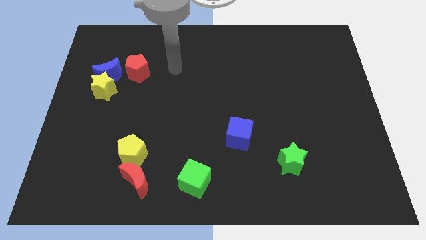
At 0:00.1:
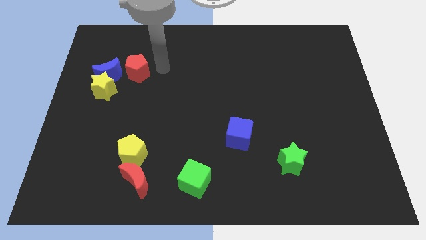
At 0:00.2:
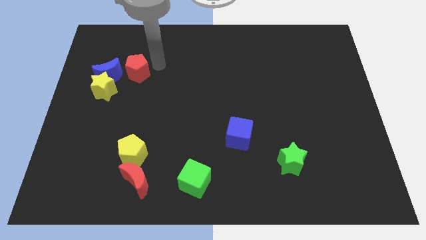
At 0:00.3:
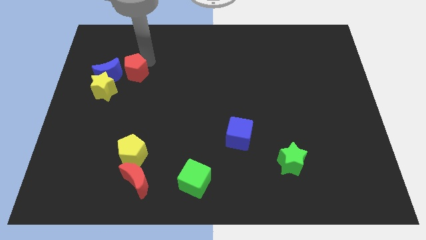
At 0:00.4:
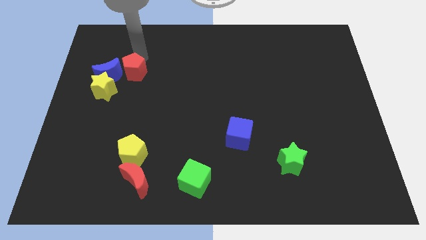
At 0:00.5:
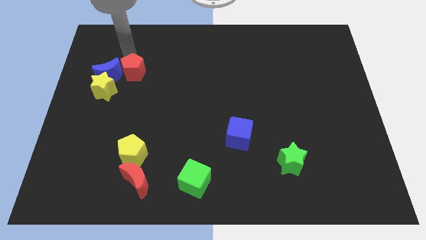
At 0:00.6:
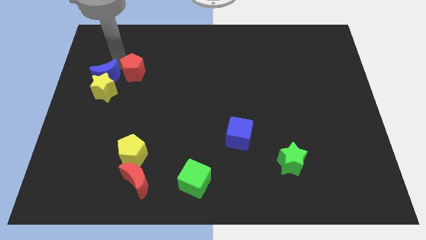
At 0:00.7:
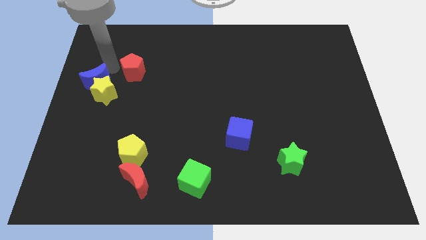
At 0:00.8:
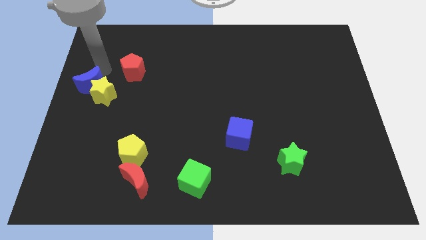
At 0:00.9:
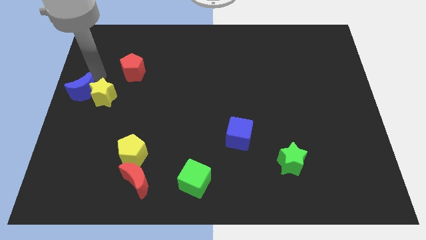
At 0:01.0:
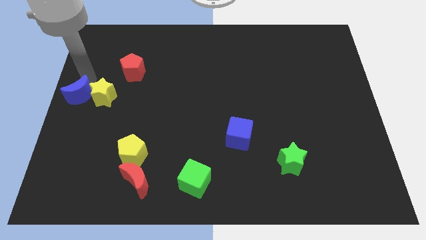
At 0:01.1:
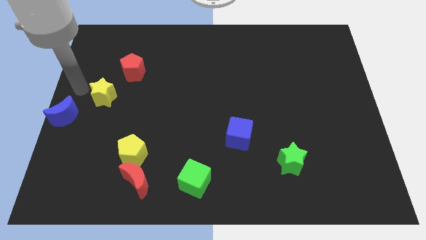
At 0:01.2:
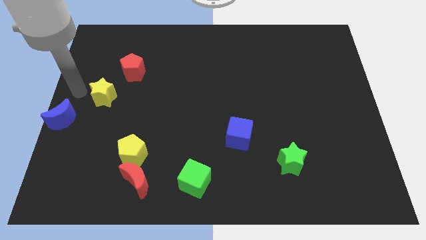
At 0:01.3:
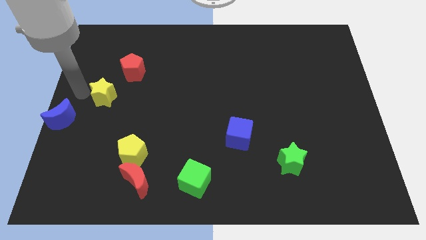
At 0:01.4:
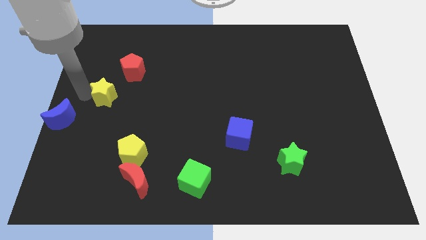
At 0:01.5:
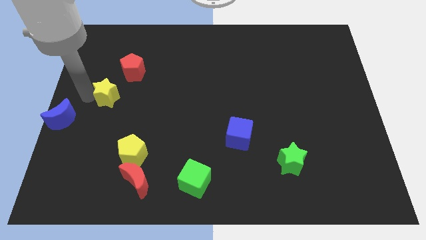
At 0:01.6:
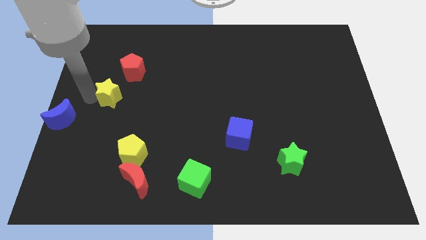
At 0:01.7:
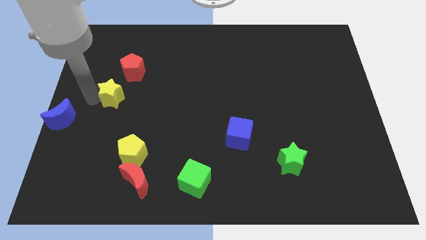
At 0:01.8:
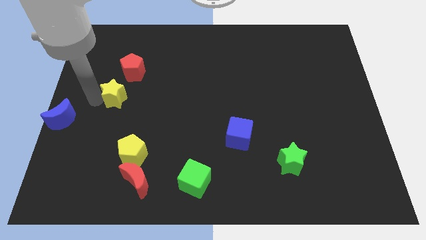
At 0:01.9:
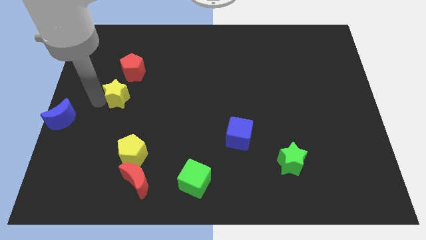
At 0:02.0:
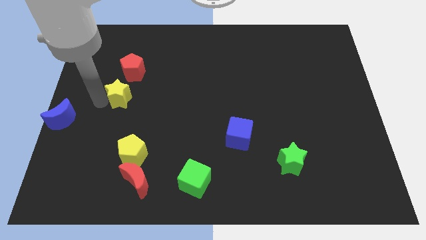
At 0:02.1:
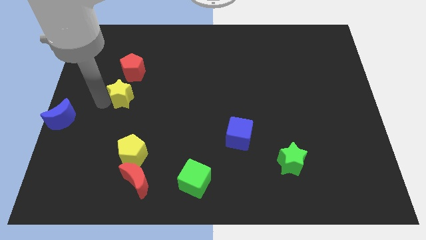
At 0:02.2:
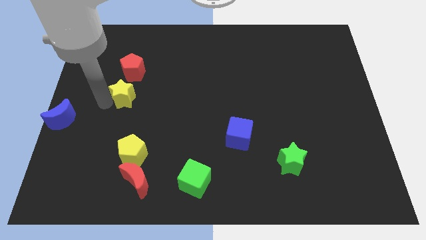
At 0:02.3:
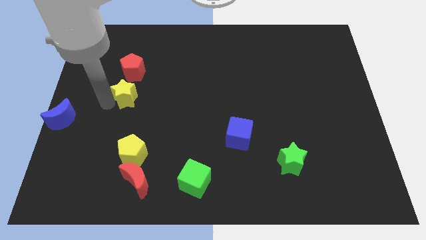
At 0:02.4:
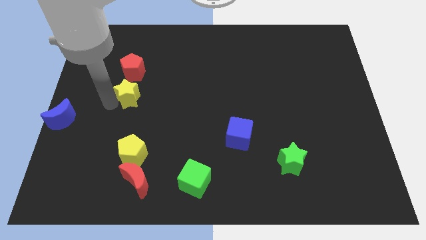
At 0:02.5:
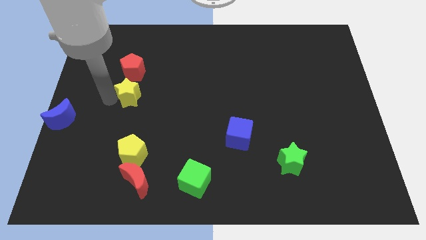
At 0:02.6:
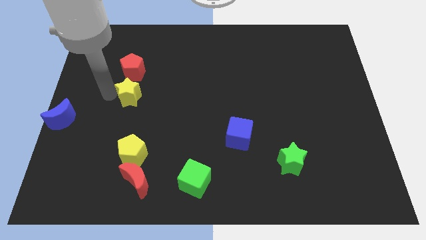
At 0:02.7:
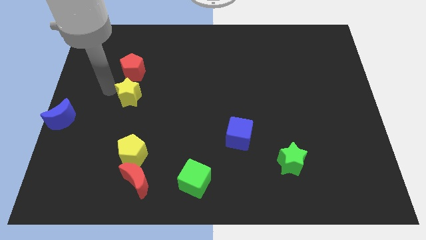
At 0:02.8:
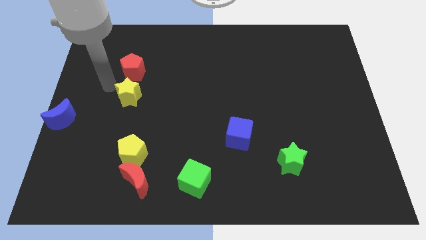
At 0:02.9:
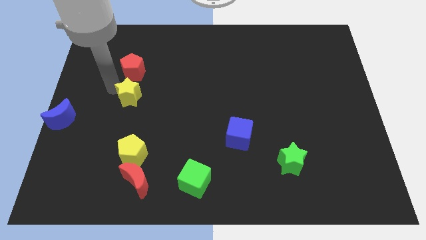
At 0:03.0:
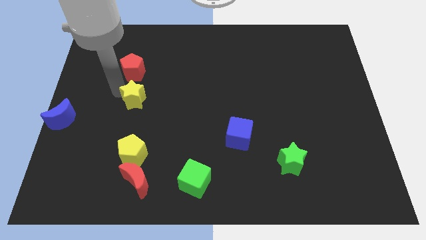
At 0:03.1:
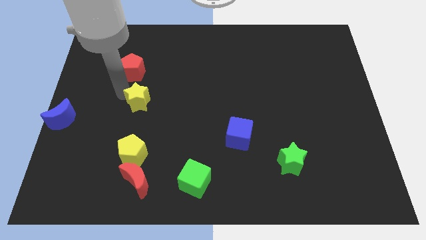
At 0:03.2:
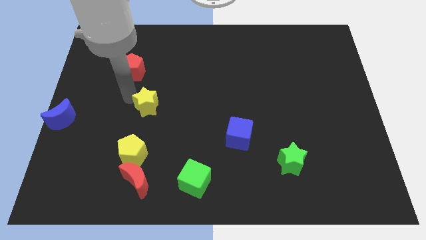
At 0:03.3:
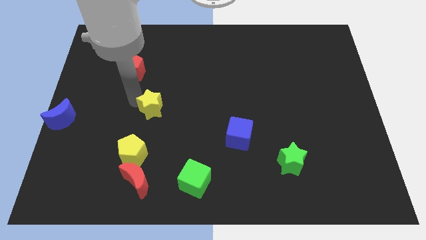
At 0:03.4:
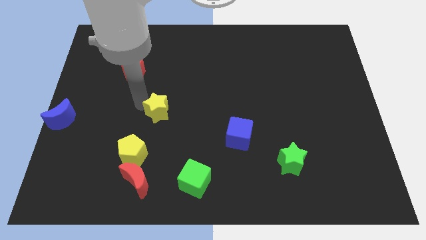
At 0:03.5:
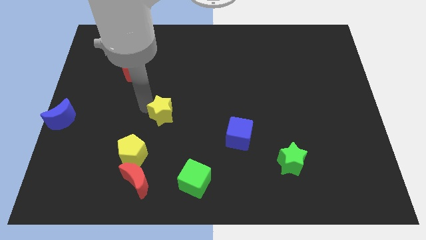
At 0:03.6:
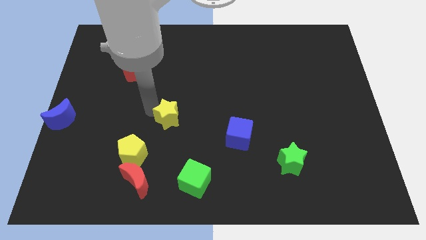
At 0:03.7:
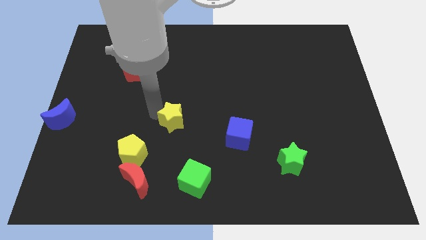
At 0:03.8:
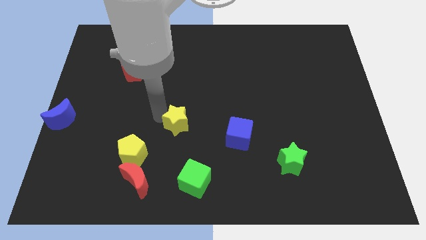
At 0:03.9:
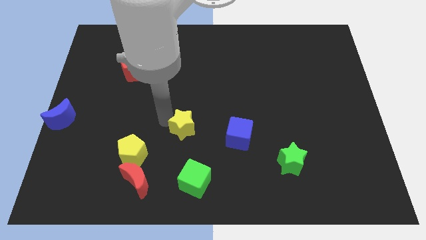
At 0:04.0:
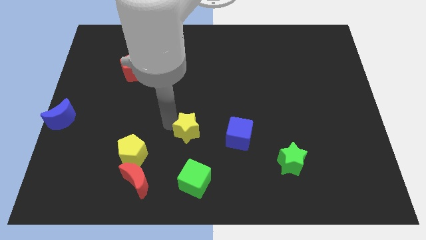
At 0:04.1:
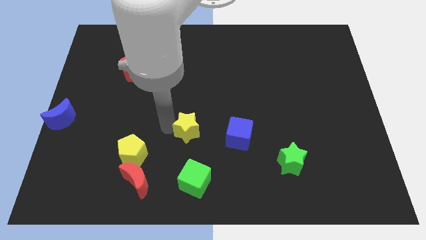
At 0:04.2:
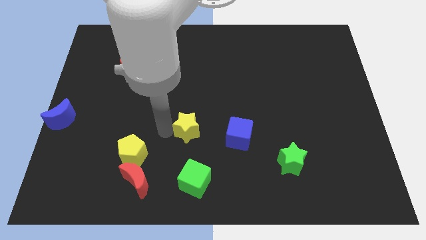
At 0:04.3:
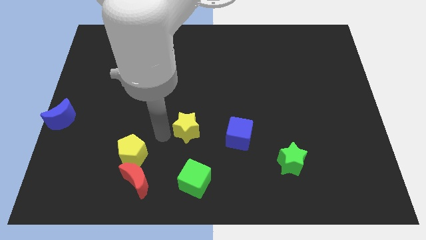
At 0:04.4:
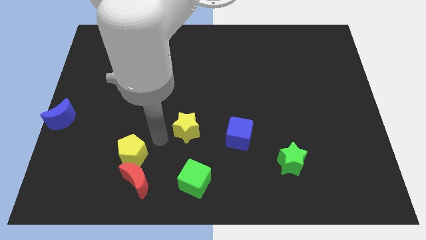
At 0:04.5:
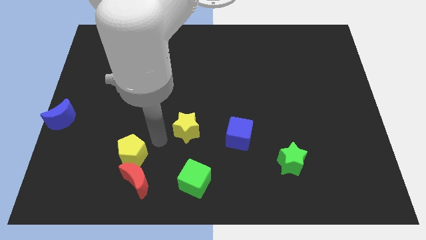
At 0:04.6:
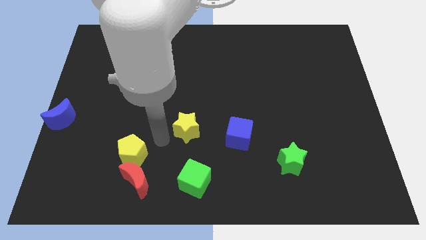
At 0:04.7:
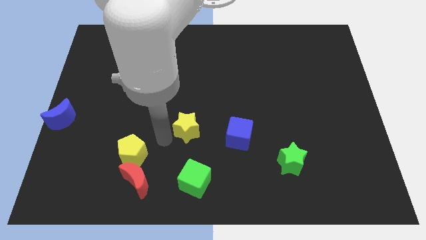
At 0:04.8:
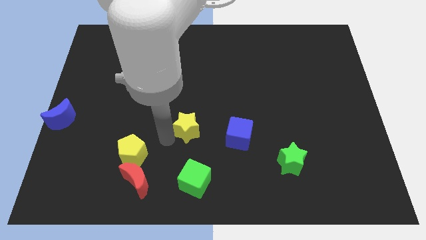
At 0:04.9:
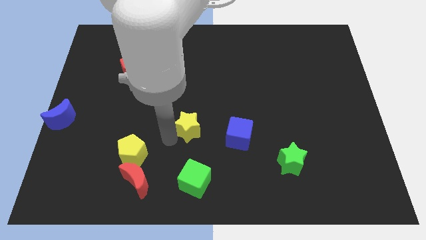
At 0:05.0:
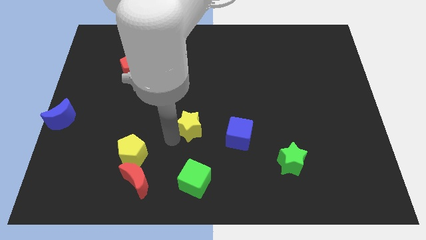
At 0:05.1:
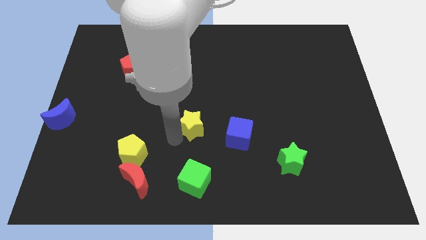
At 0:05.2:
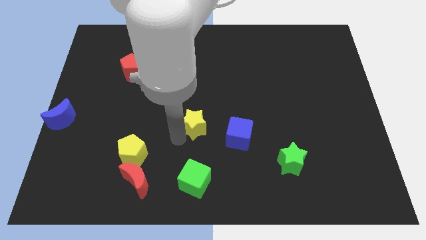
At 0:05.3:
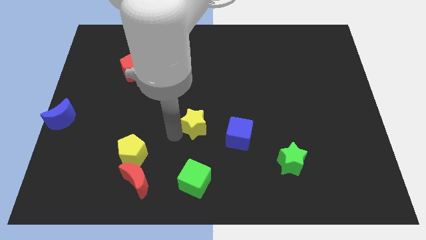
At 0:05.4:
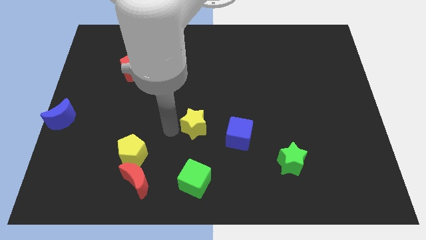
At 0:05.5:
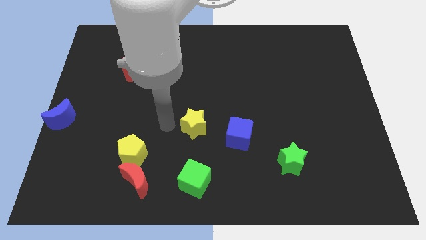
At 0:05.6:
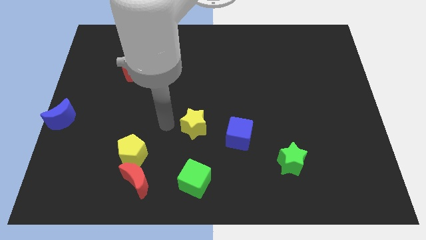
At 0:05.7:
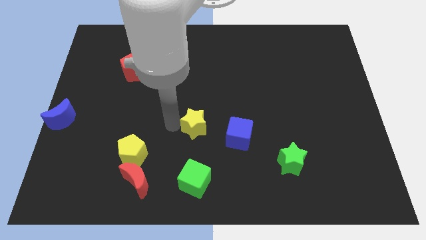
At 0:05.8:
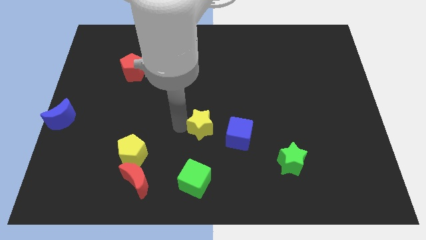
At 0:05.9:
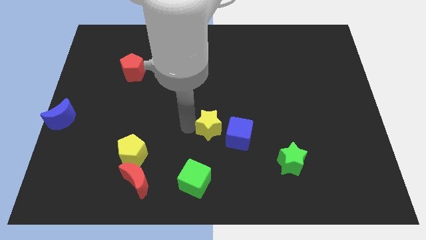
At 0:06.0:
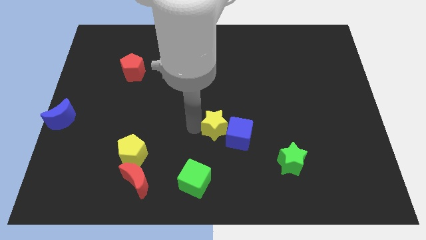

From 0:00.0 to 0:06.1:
put the yellow star towards the blue cube
